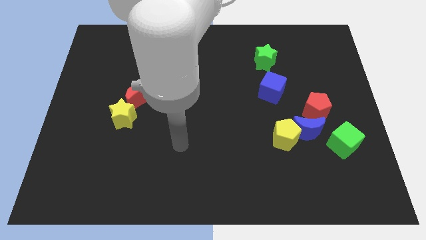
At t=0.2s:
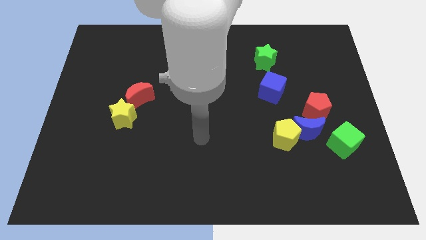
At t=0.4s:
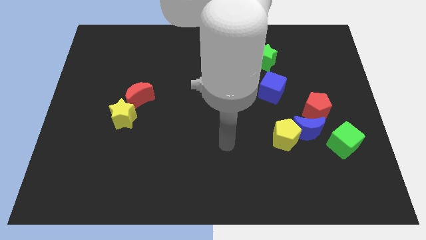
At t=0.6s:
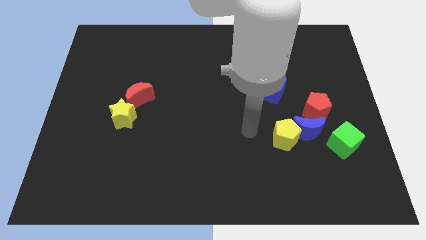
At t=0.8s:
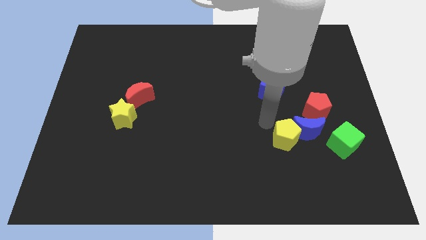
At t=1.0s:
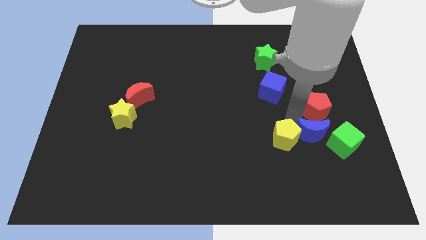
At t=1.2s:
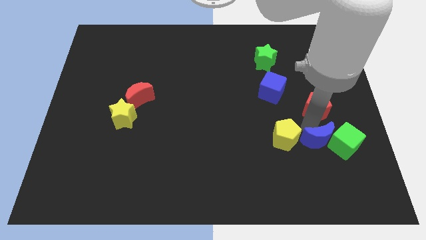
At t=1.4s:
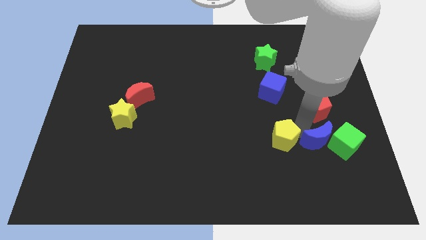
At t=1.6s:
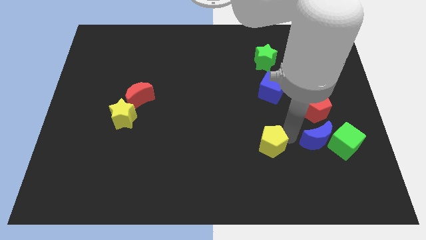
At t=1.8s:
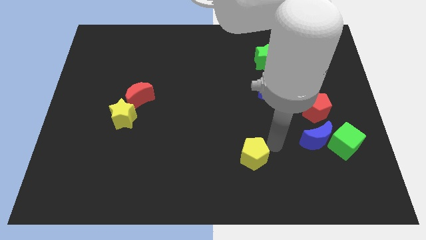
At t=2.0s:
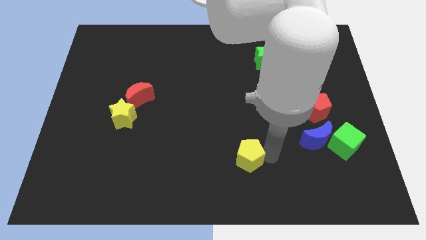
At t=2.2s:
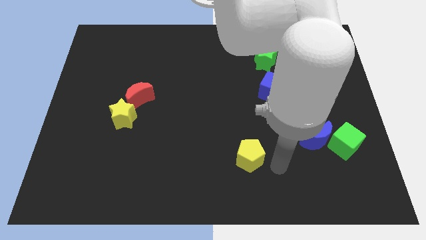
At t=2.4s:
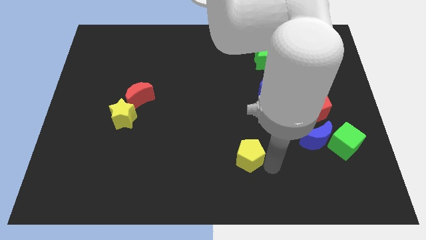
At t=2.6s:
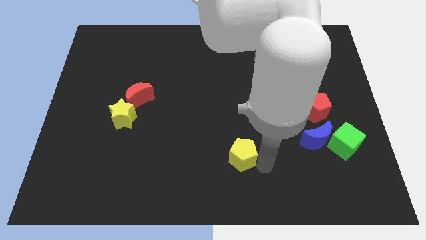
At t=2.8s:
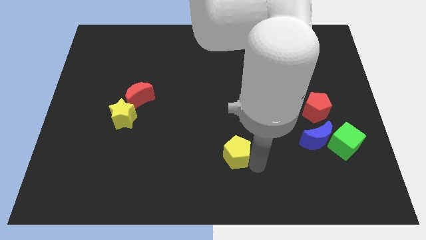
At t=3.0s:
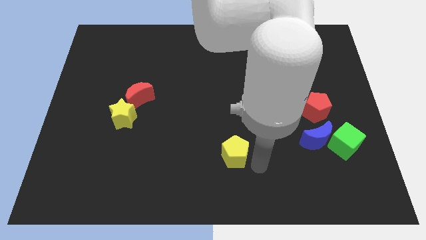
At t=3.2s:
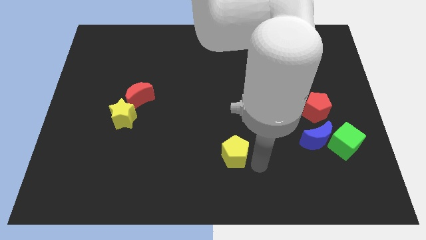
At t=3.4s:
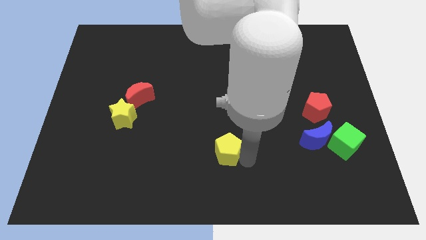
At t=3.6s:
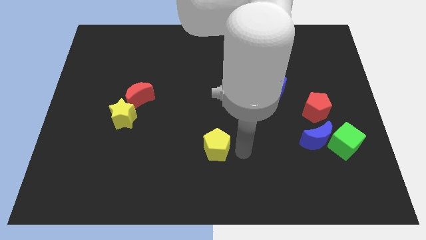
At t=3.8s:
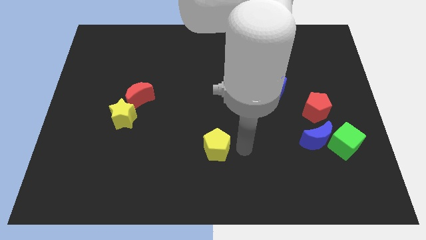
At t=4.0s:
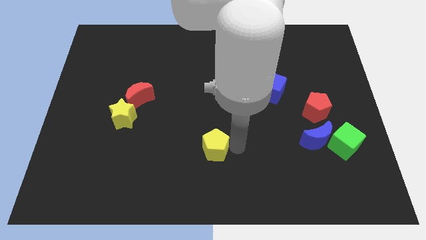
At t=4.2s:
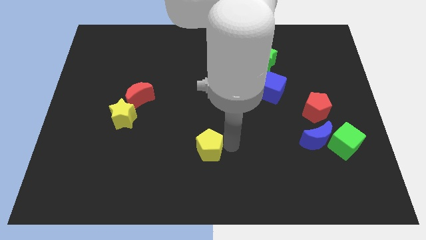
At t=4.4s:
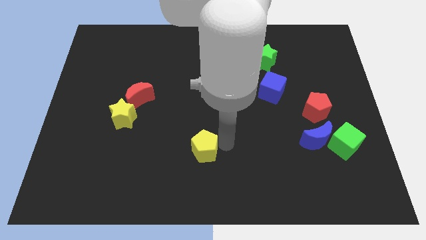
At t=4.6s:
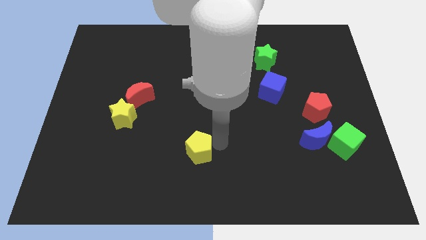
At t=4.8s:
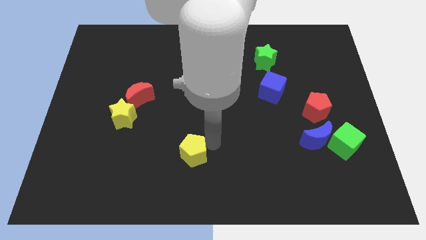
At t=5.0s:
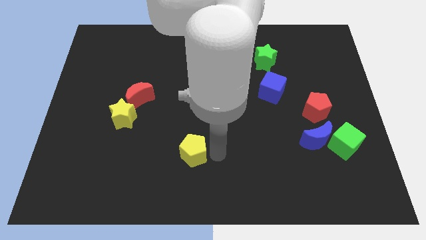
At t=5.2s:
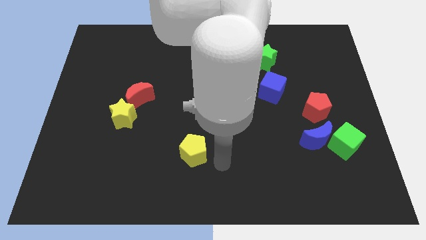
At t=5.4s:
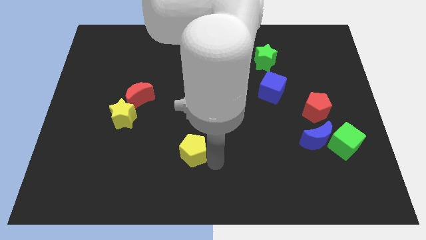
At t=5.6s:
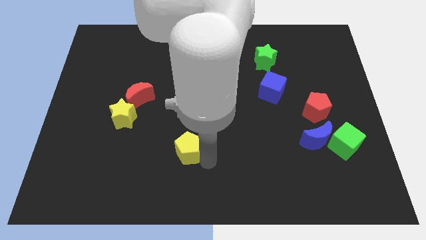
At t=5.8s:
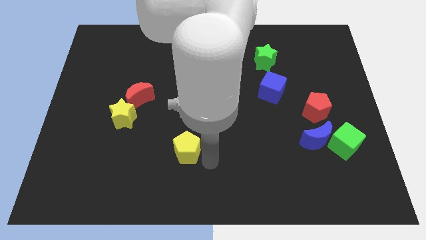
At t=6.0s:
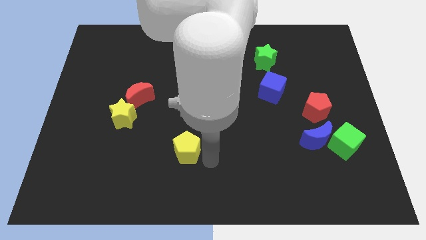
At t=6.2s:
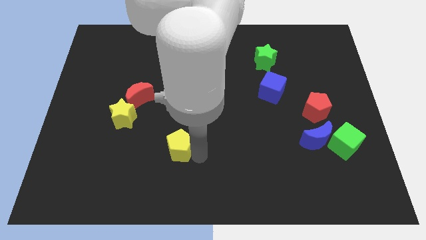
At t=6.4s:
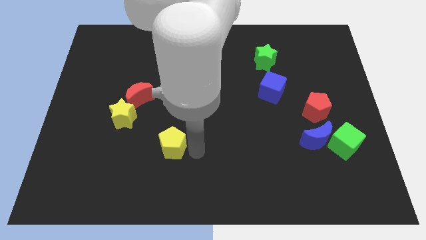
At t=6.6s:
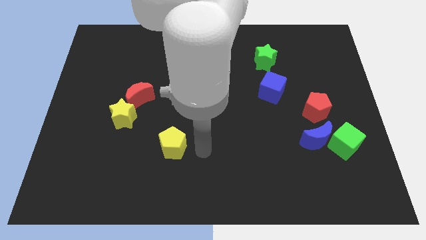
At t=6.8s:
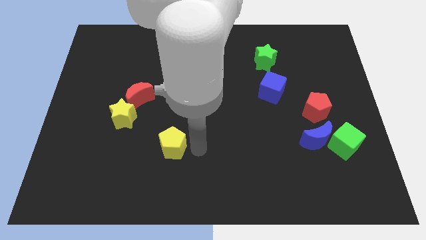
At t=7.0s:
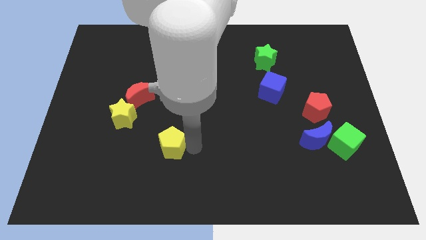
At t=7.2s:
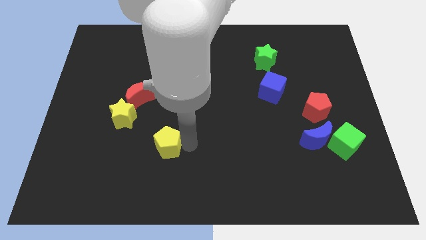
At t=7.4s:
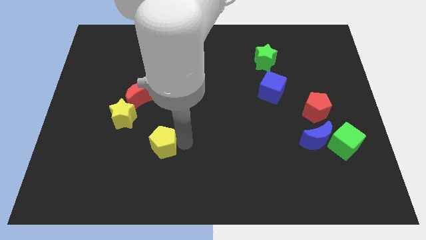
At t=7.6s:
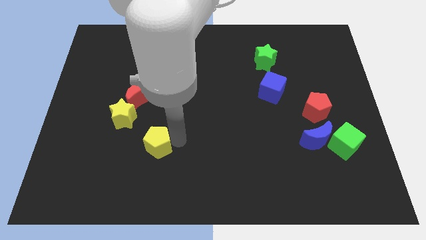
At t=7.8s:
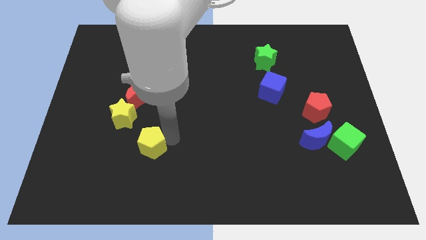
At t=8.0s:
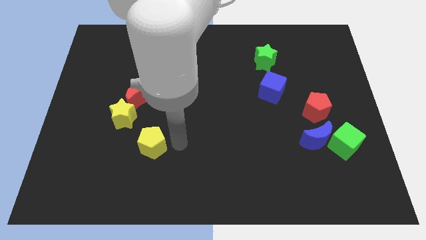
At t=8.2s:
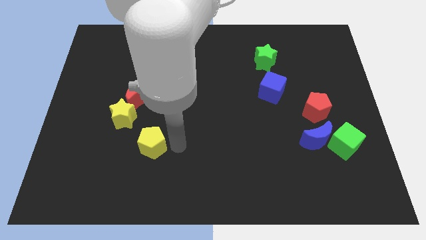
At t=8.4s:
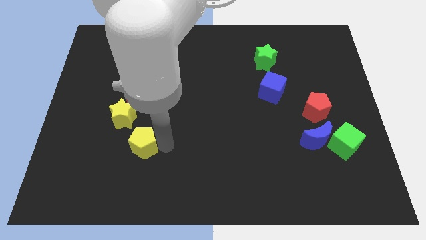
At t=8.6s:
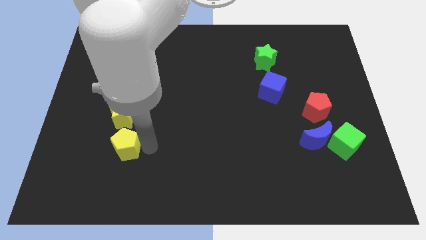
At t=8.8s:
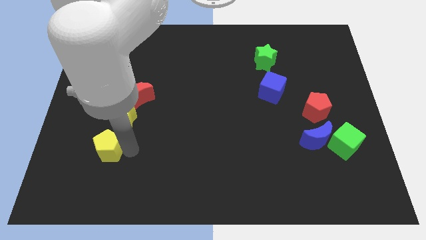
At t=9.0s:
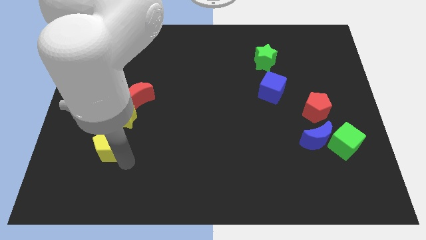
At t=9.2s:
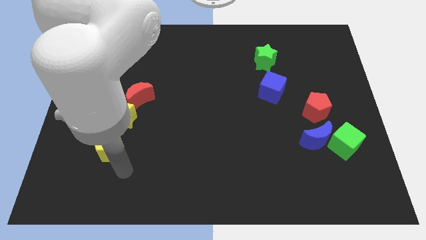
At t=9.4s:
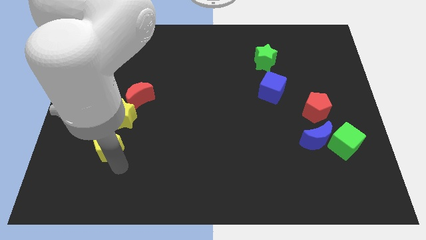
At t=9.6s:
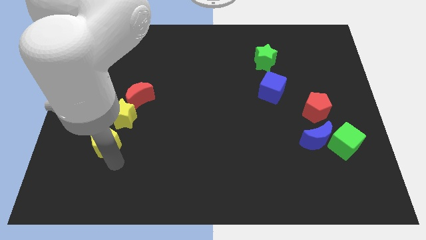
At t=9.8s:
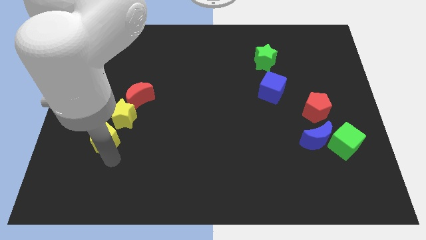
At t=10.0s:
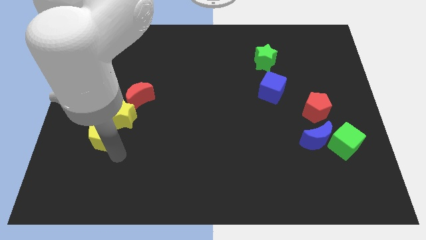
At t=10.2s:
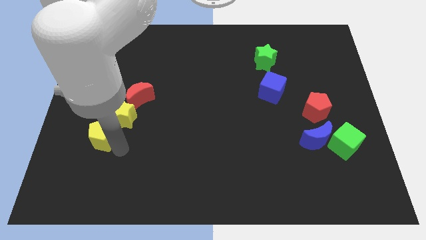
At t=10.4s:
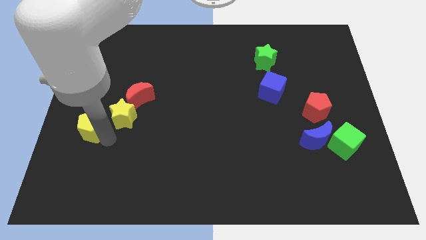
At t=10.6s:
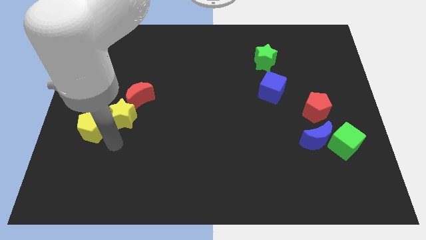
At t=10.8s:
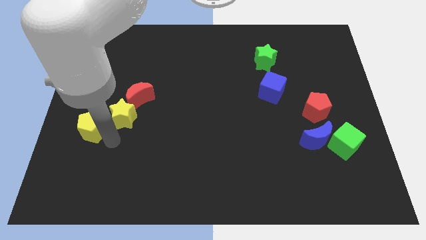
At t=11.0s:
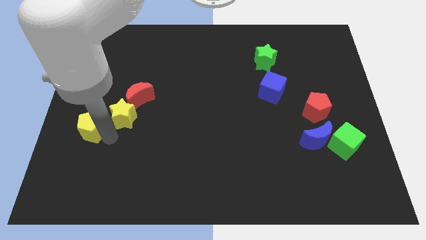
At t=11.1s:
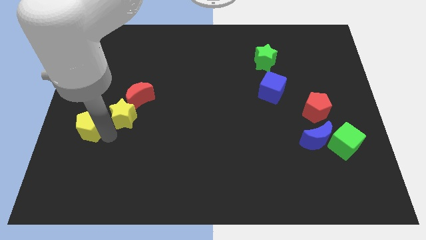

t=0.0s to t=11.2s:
put the yellow pentagon to the center left
